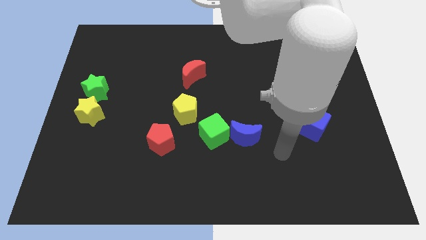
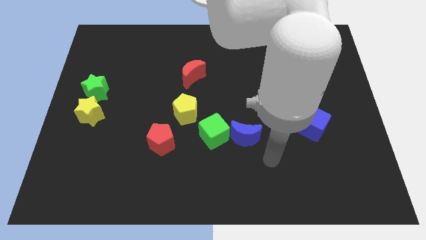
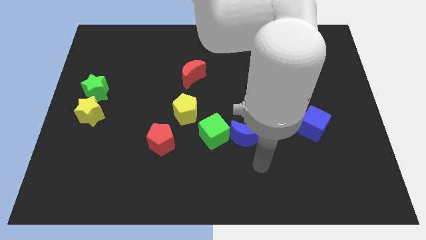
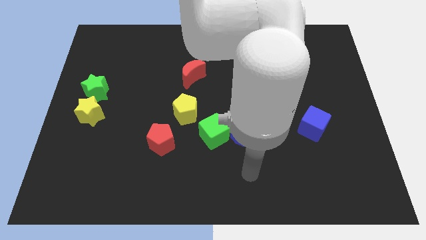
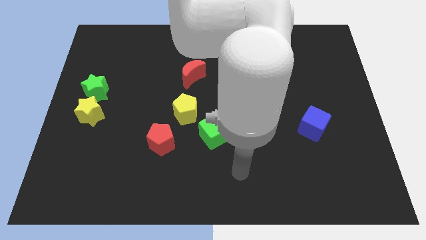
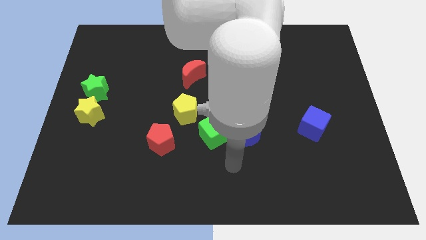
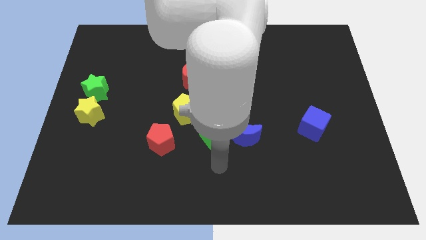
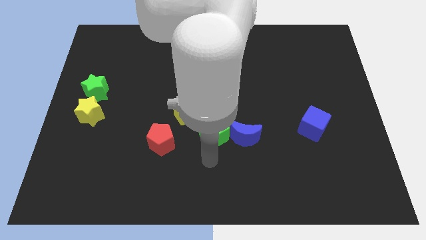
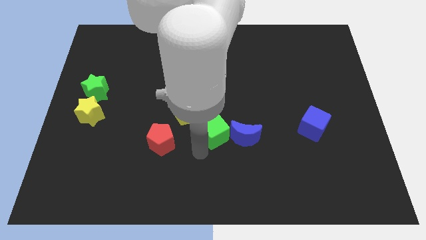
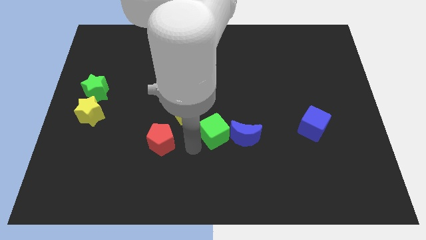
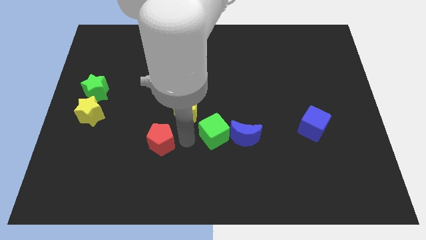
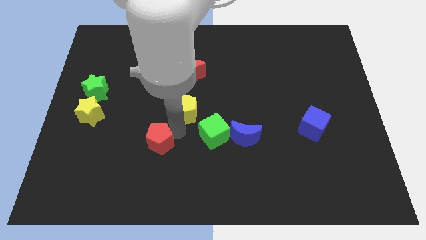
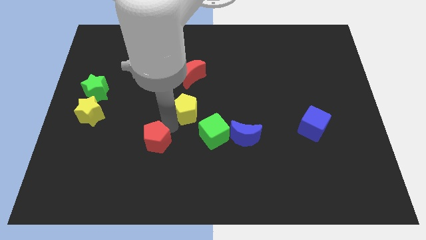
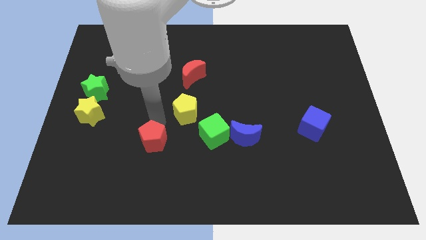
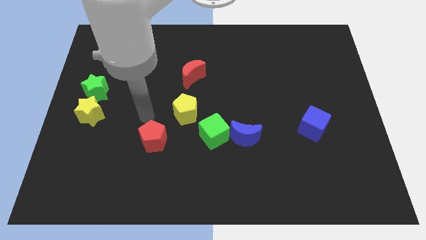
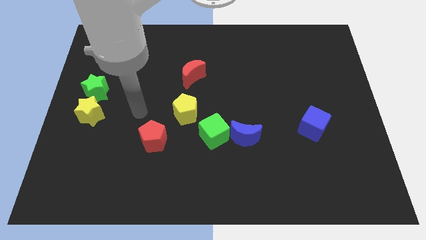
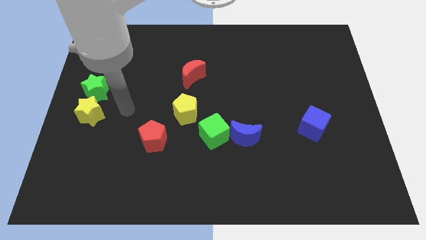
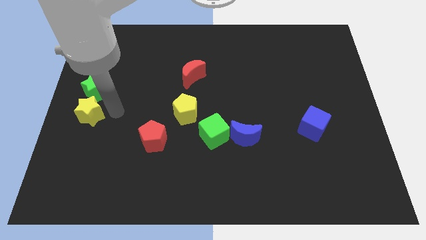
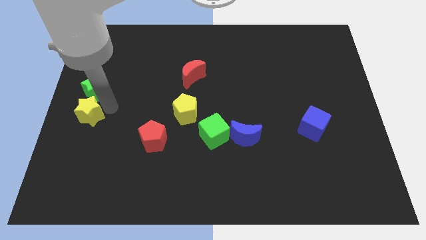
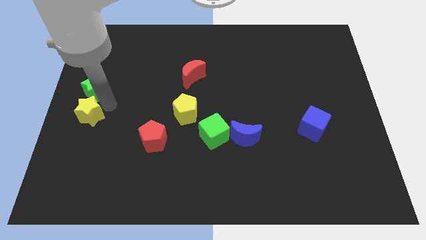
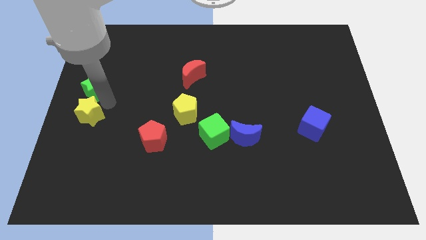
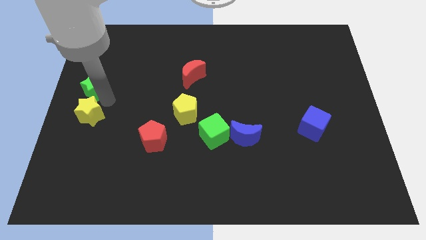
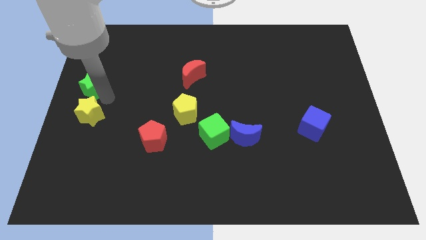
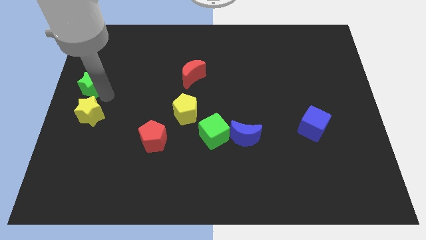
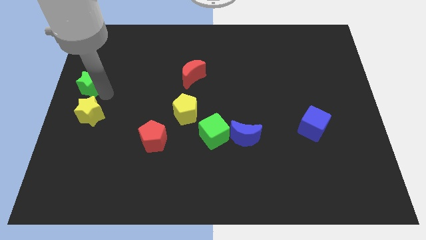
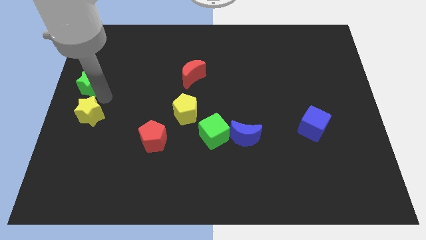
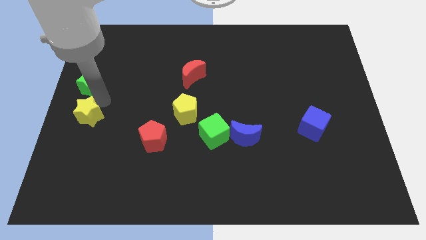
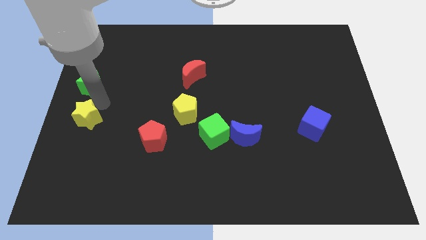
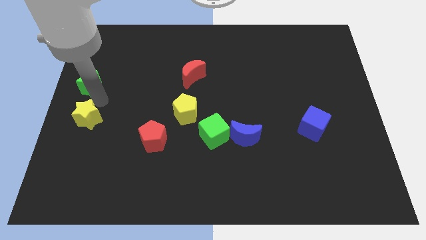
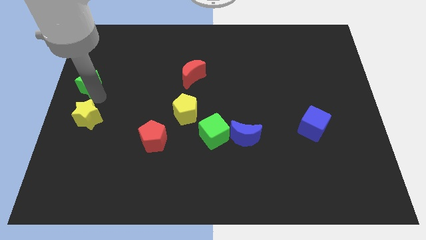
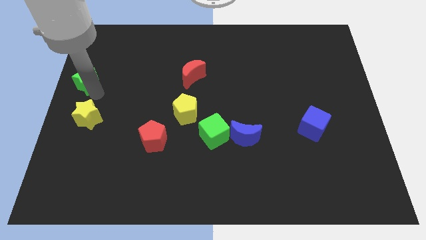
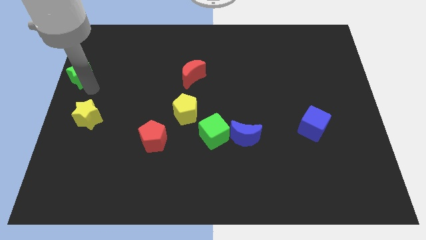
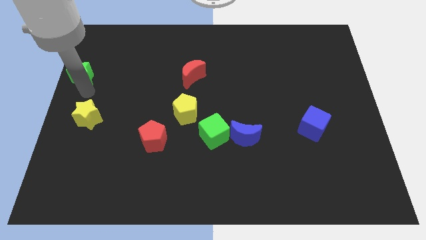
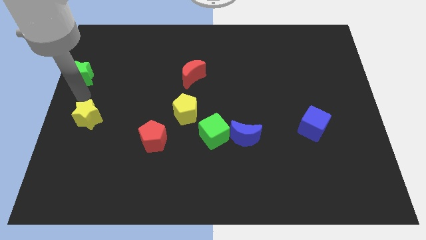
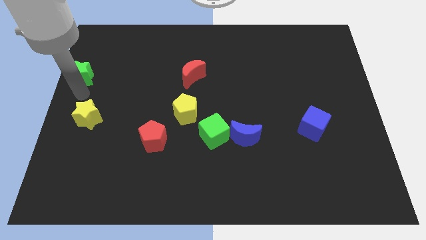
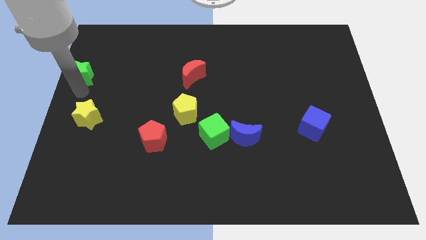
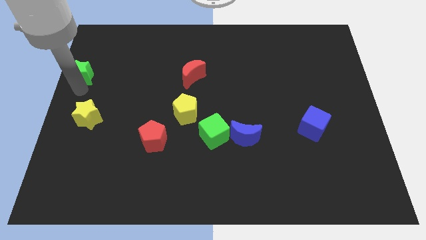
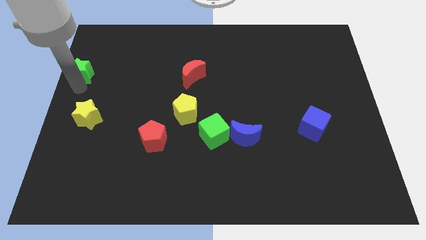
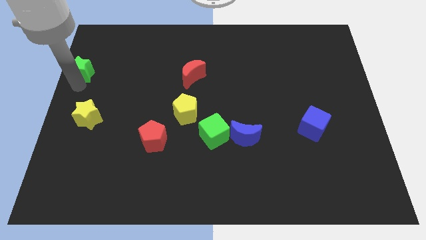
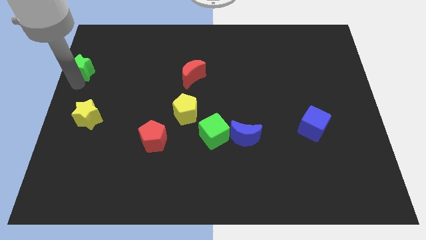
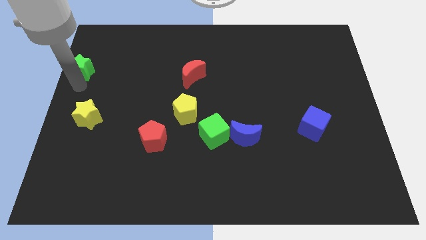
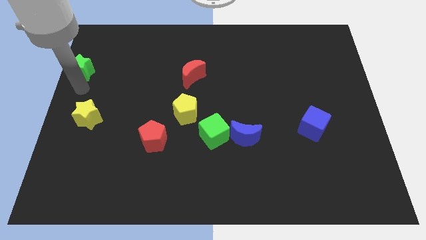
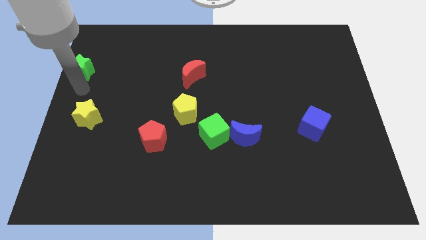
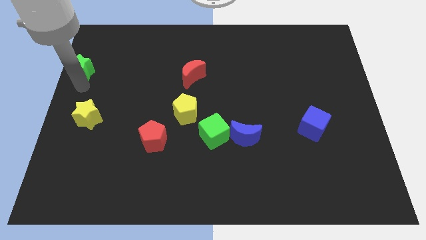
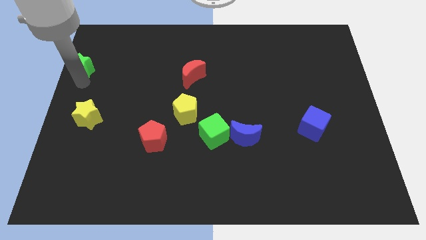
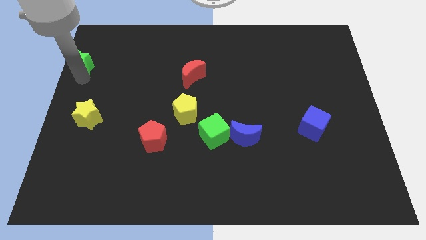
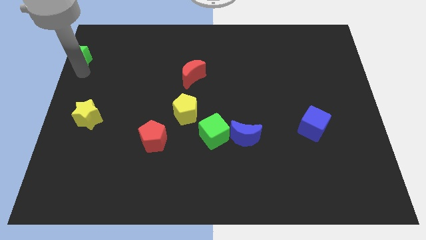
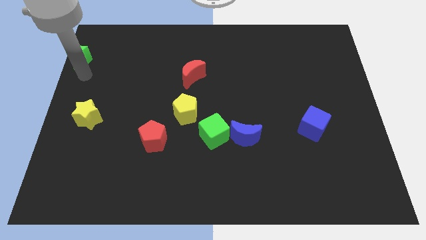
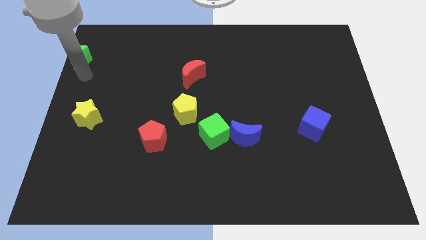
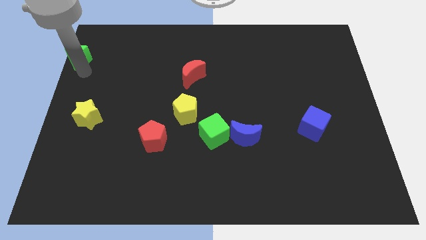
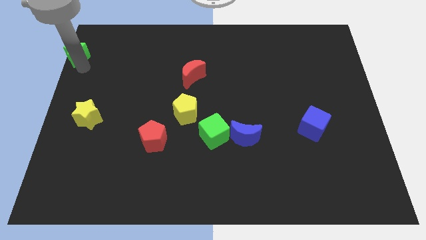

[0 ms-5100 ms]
push the green star to the top left of the board

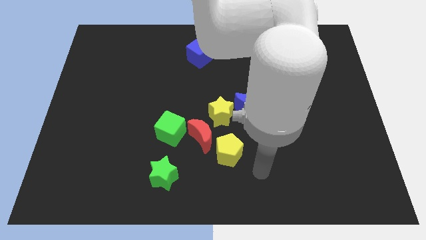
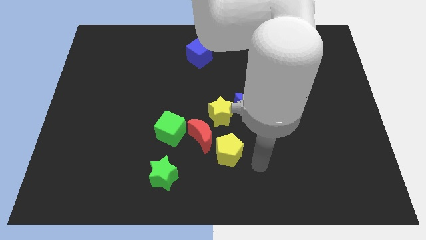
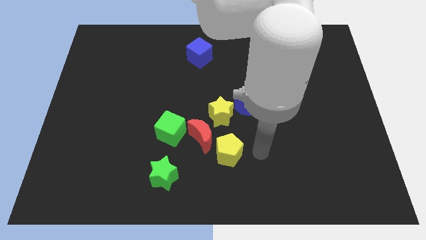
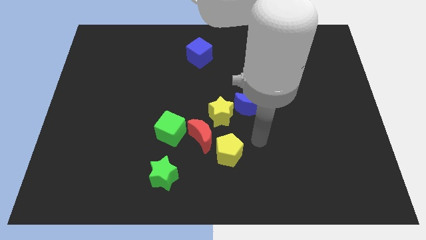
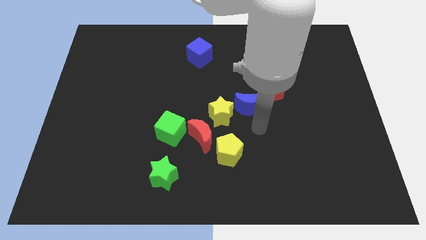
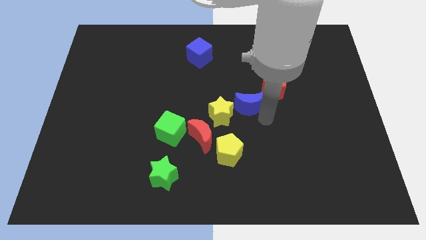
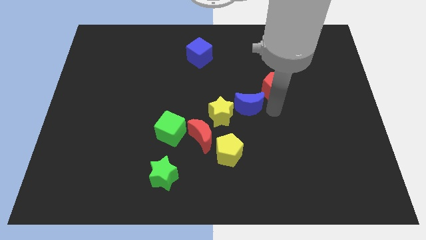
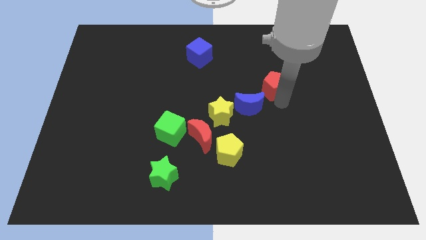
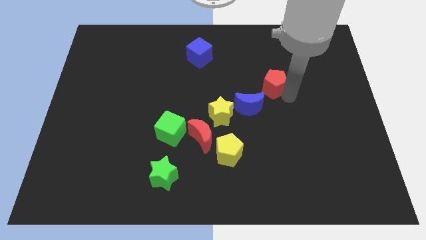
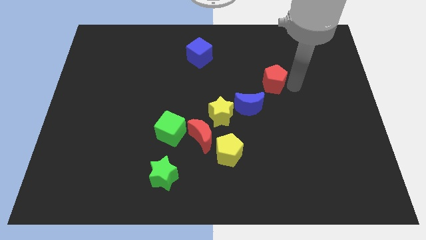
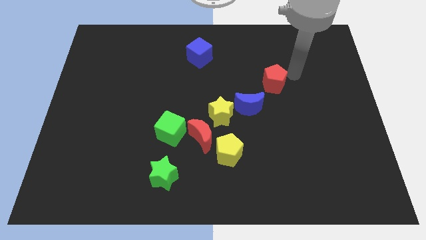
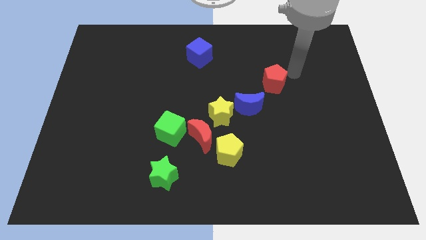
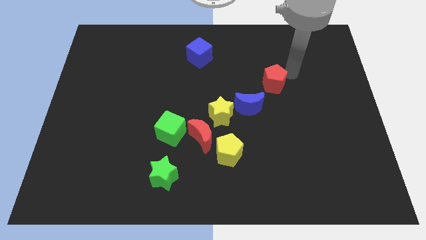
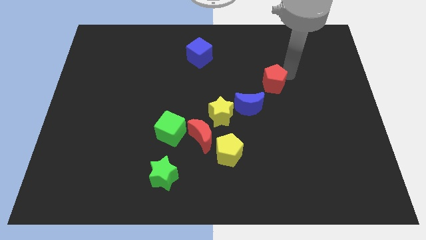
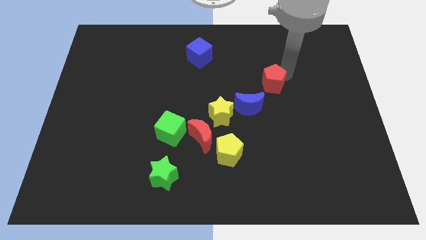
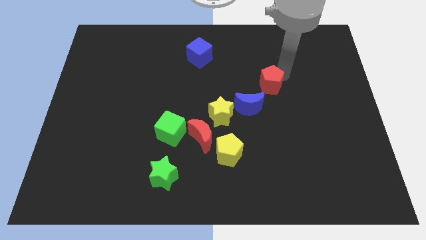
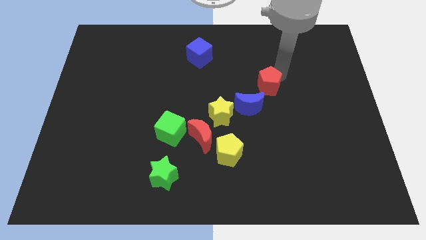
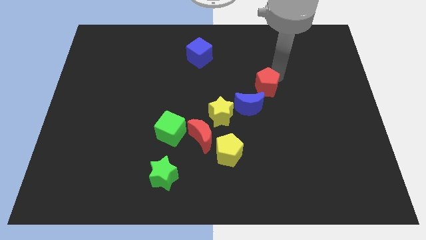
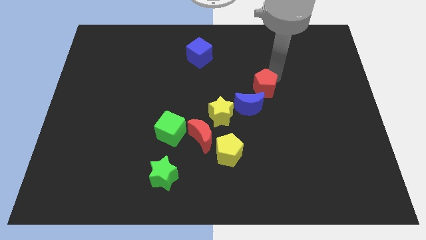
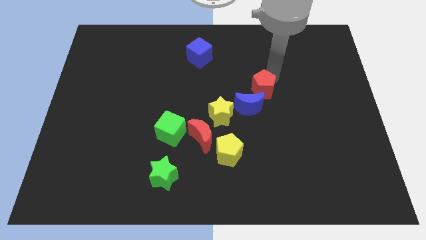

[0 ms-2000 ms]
put the red pentagon to the center of the board

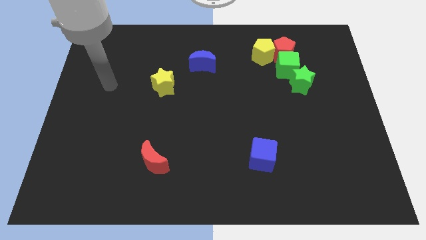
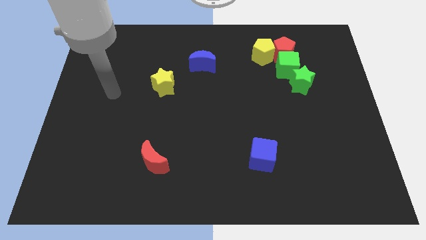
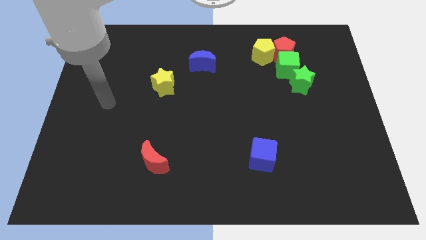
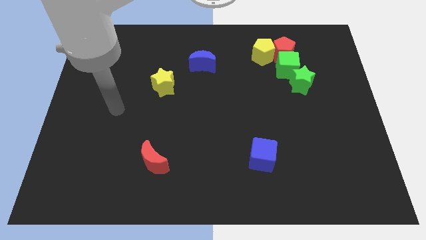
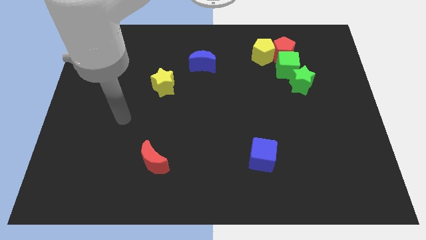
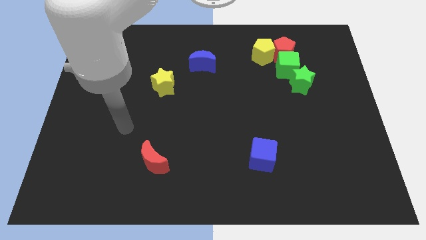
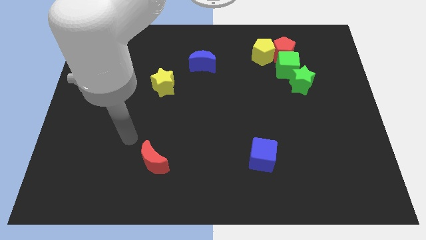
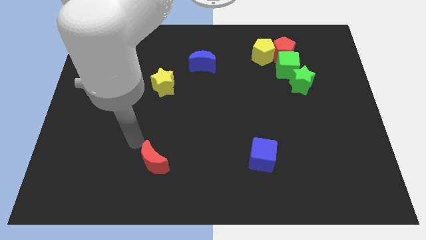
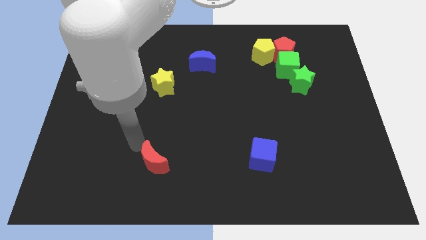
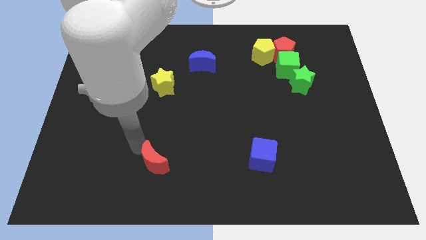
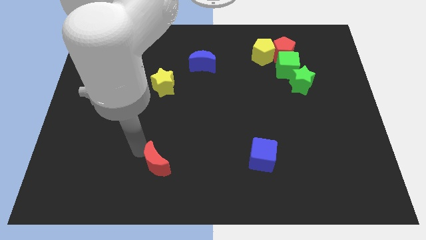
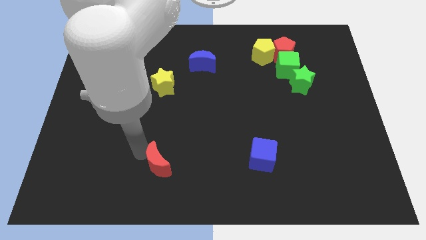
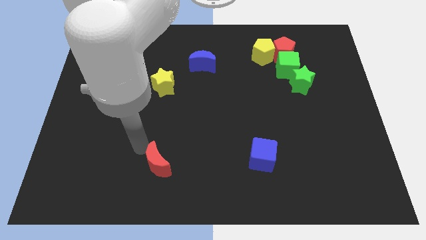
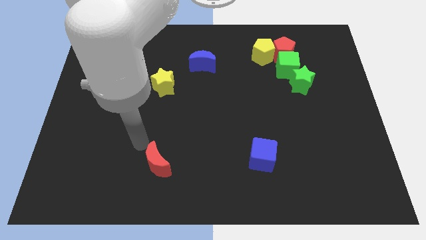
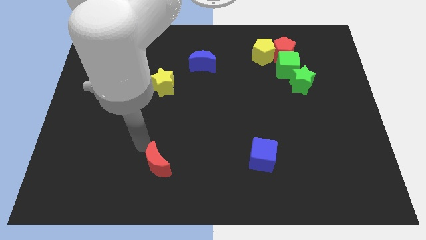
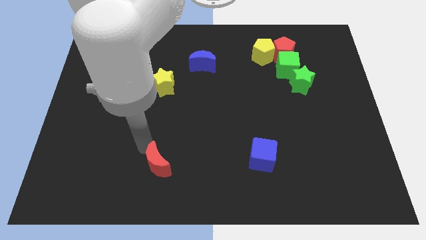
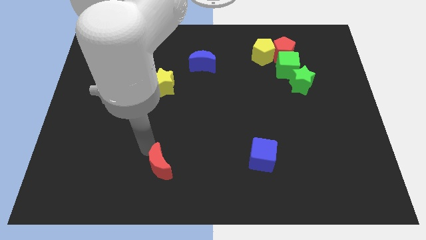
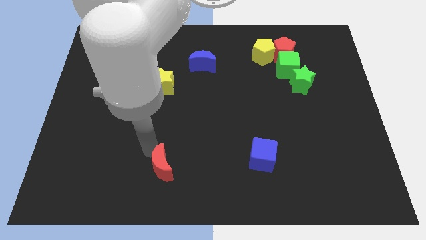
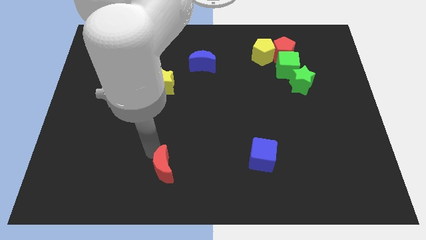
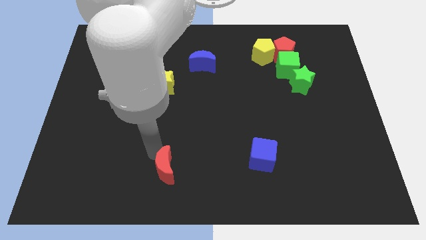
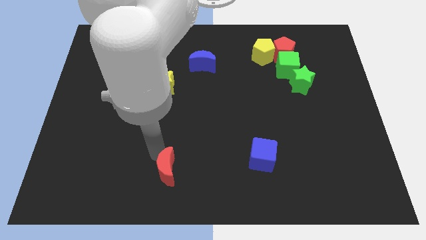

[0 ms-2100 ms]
put the red moon to the bottom side
